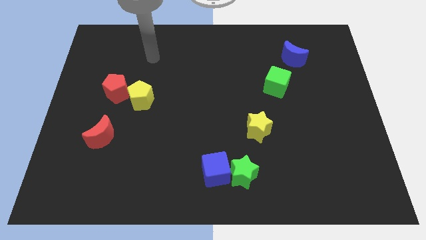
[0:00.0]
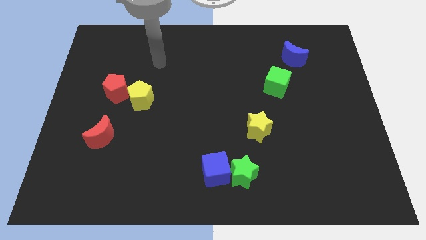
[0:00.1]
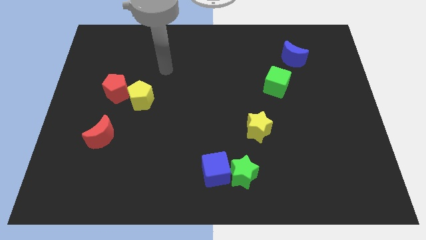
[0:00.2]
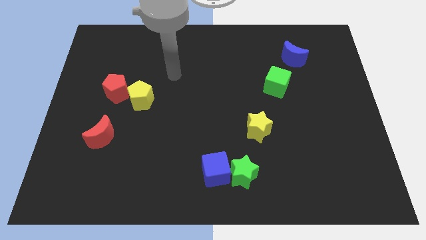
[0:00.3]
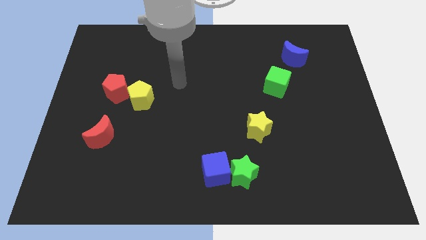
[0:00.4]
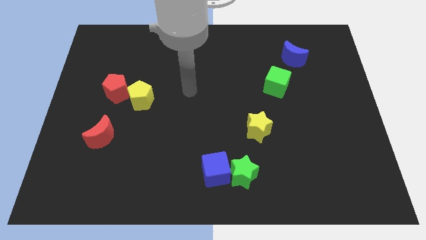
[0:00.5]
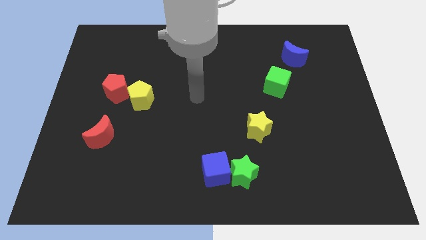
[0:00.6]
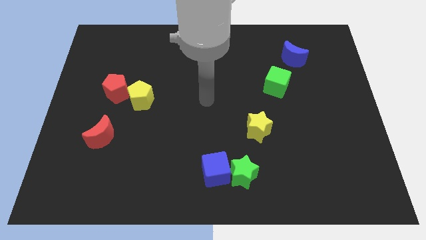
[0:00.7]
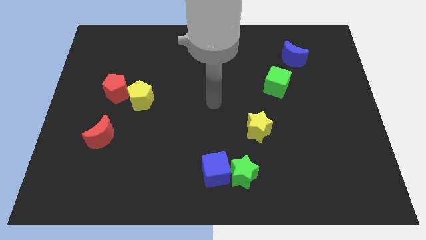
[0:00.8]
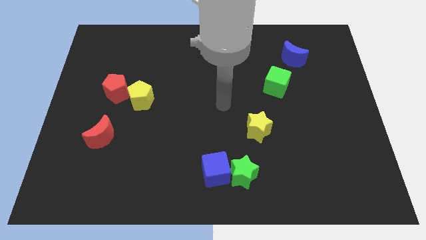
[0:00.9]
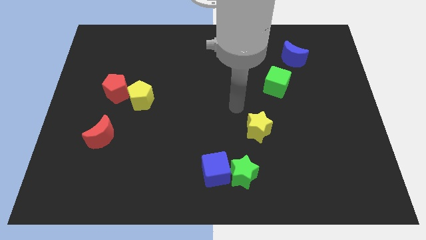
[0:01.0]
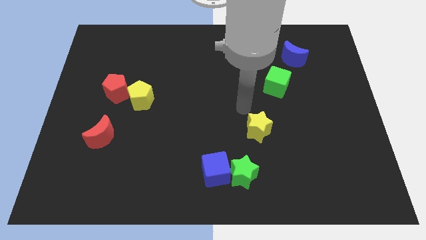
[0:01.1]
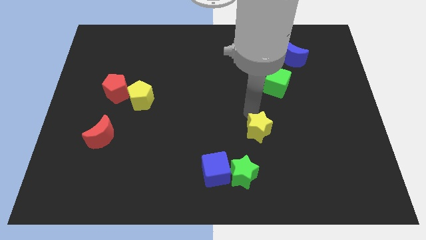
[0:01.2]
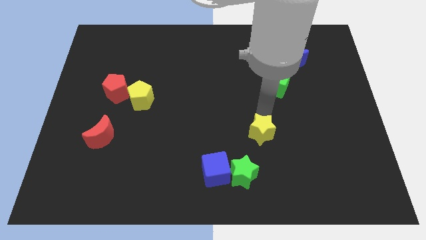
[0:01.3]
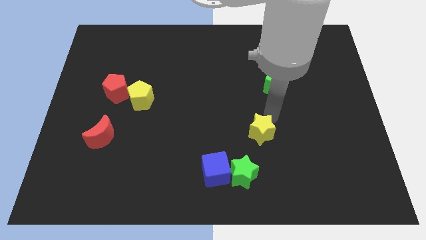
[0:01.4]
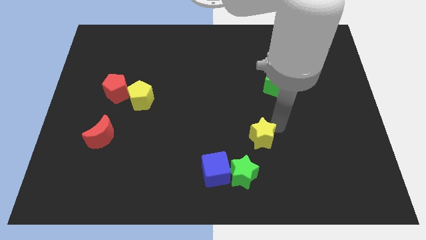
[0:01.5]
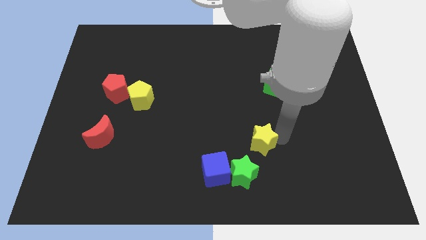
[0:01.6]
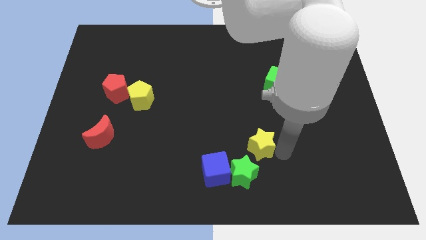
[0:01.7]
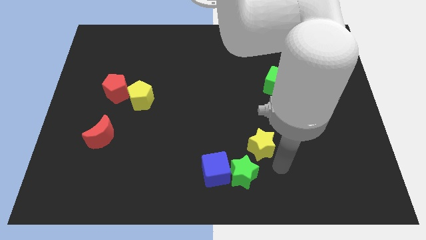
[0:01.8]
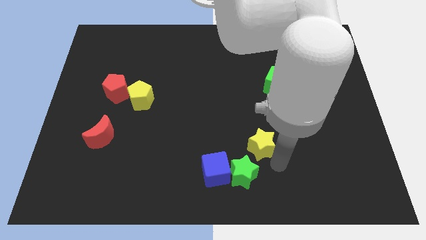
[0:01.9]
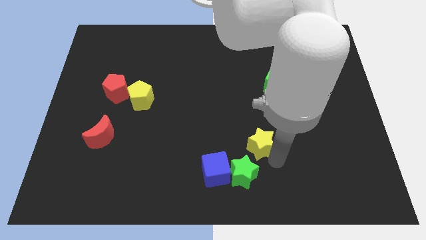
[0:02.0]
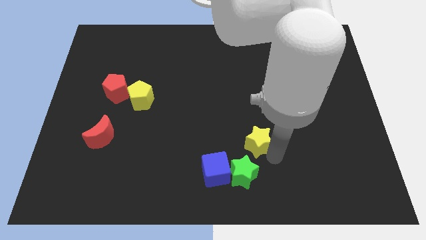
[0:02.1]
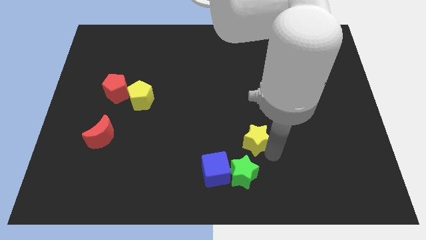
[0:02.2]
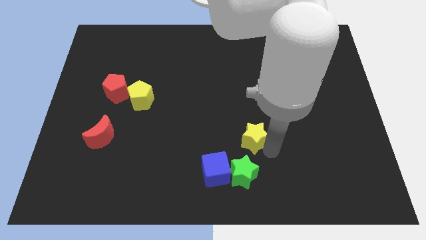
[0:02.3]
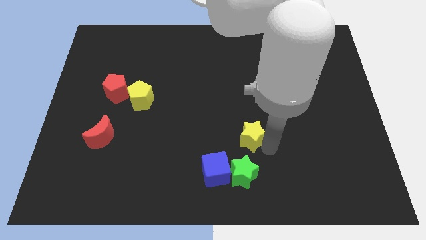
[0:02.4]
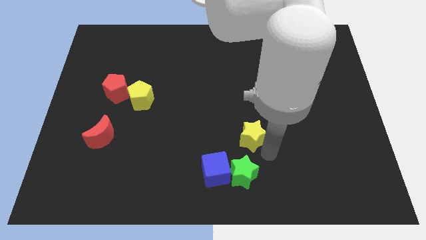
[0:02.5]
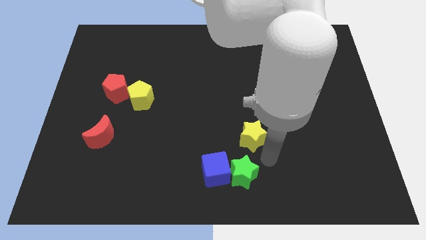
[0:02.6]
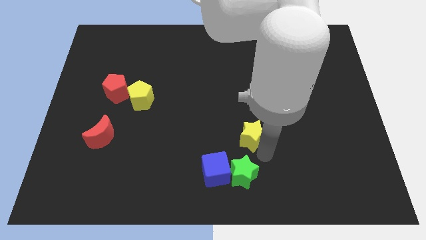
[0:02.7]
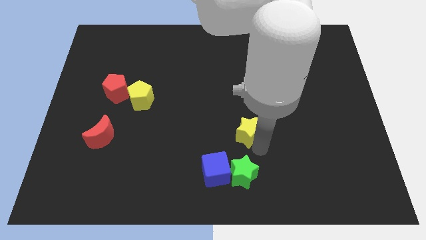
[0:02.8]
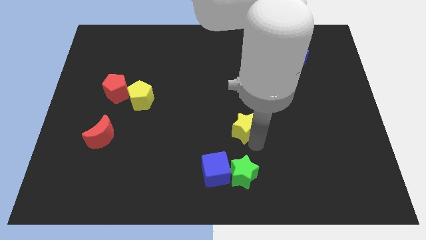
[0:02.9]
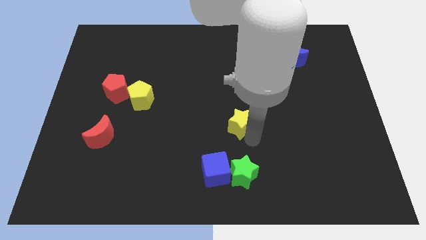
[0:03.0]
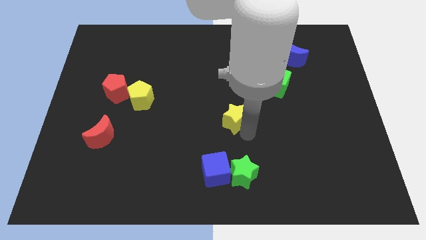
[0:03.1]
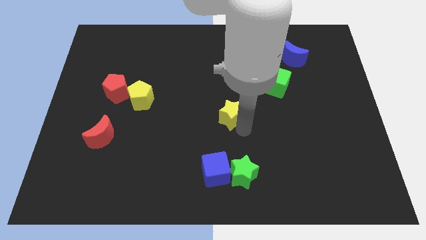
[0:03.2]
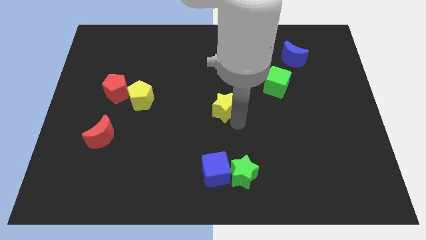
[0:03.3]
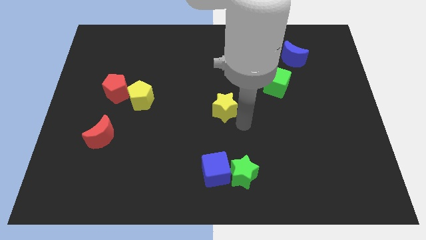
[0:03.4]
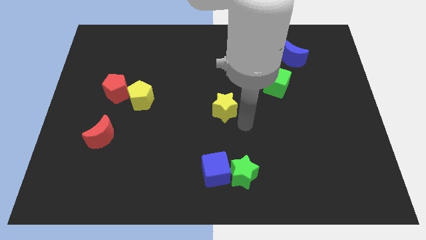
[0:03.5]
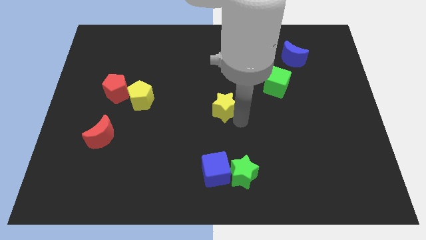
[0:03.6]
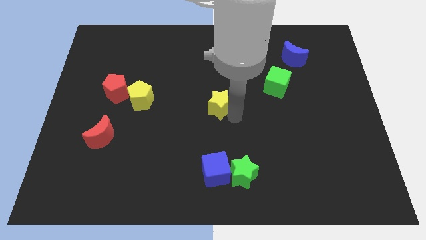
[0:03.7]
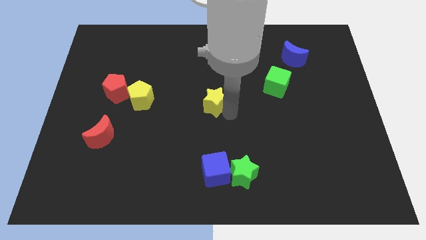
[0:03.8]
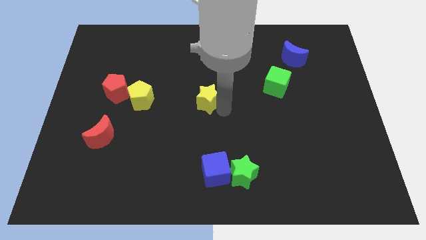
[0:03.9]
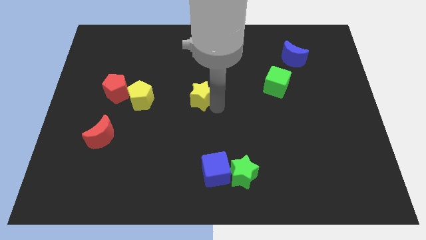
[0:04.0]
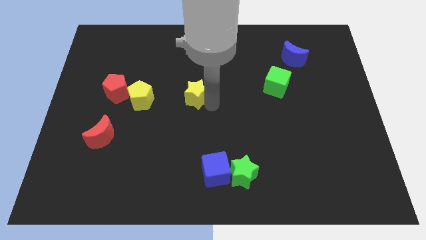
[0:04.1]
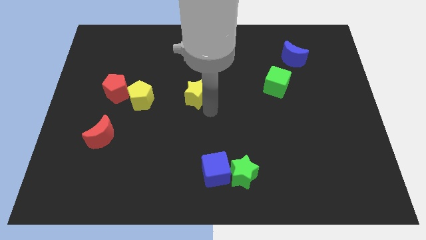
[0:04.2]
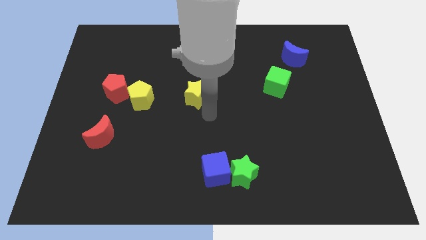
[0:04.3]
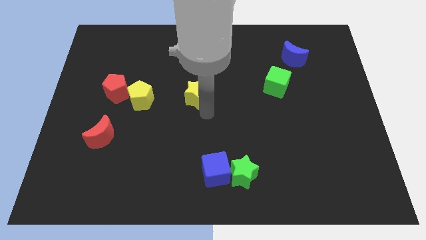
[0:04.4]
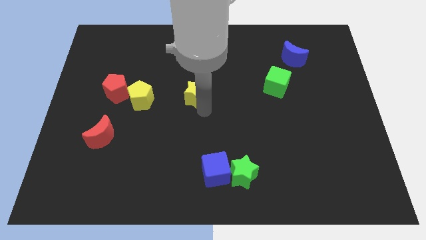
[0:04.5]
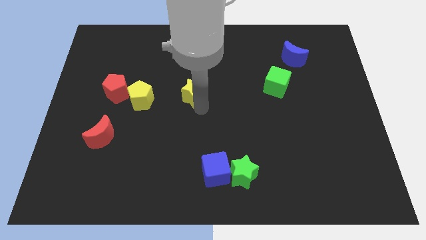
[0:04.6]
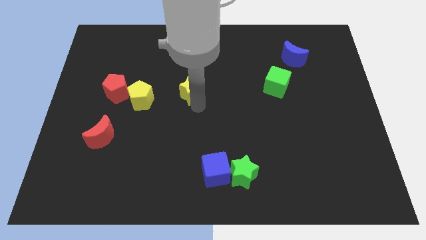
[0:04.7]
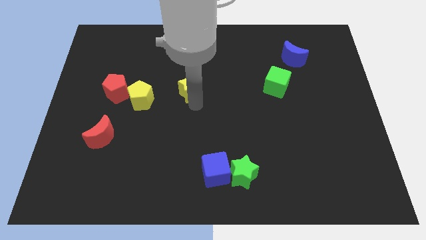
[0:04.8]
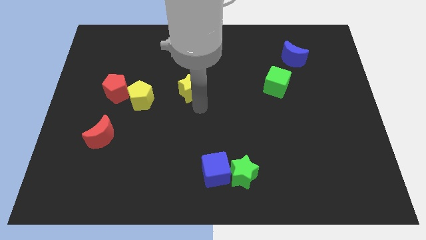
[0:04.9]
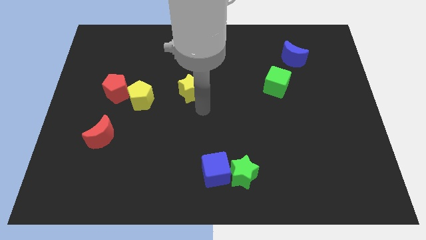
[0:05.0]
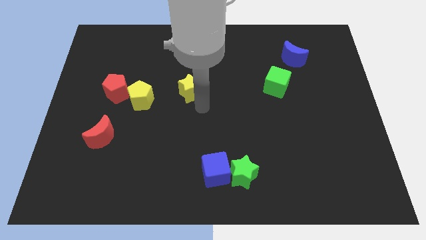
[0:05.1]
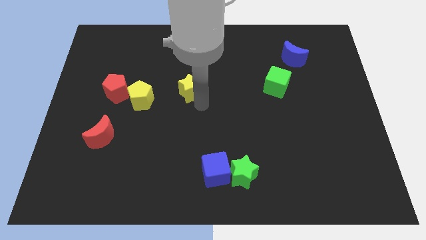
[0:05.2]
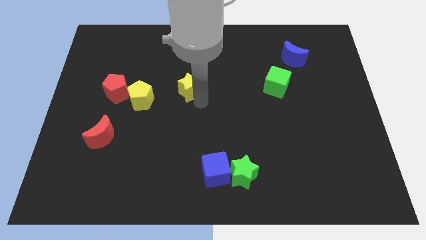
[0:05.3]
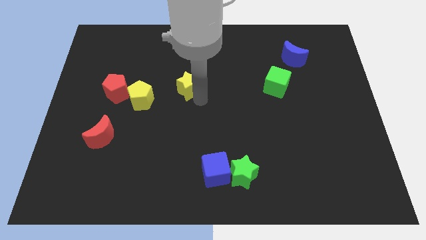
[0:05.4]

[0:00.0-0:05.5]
move the yellow star up and left diagonally

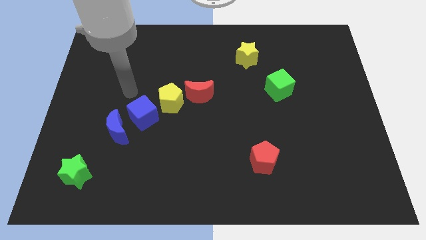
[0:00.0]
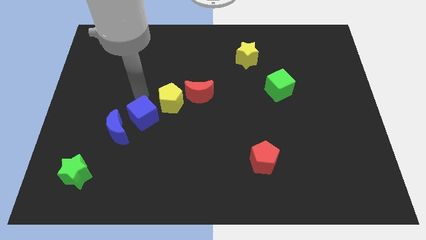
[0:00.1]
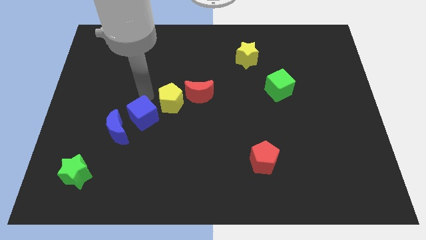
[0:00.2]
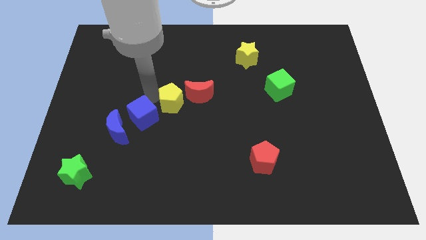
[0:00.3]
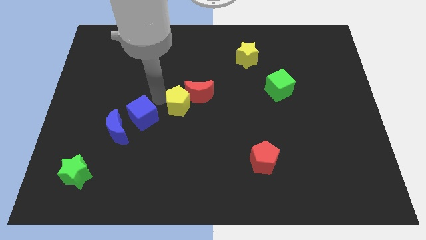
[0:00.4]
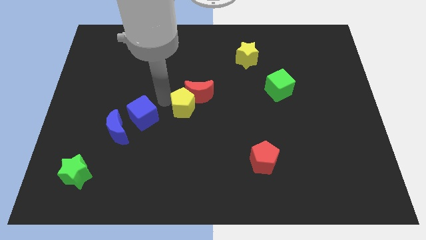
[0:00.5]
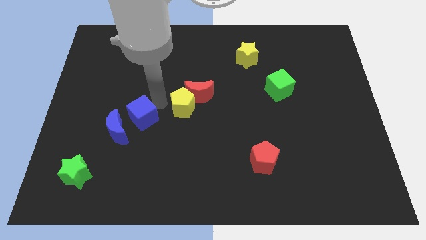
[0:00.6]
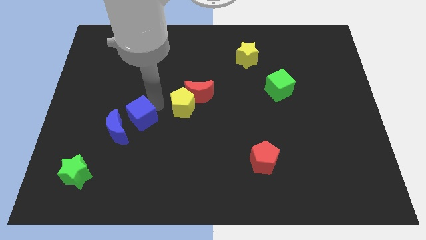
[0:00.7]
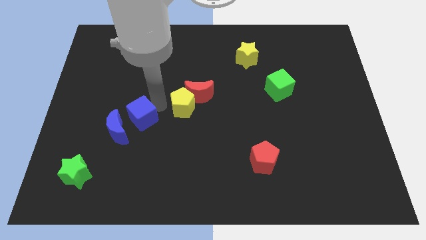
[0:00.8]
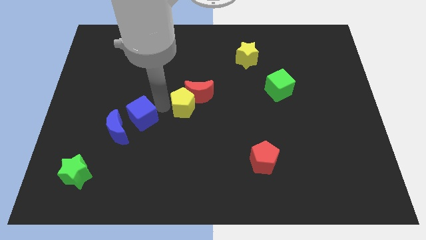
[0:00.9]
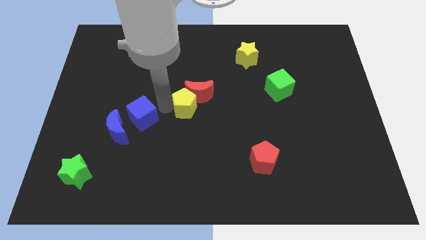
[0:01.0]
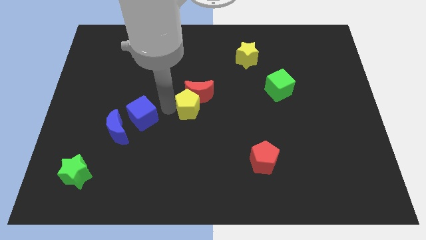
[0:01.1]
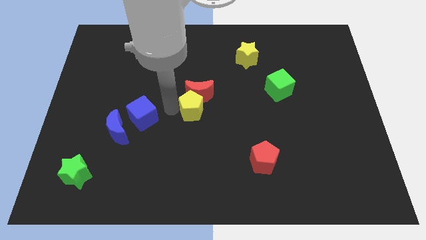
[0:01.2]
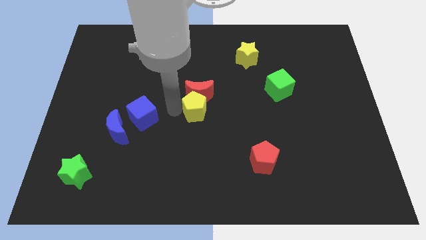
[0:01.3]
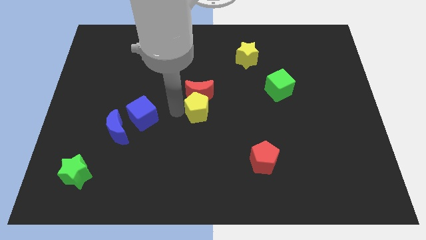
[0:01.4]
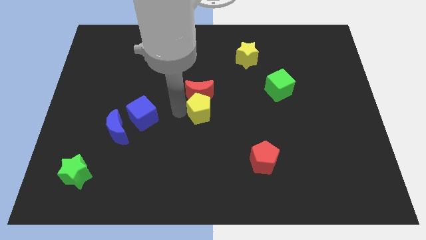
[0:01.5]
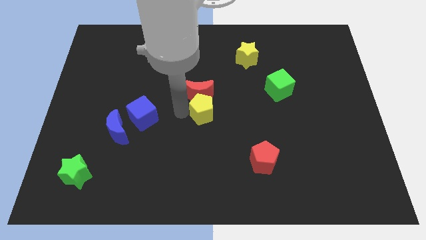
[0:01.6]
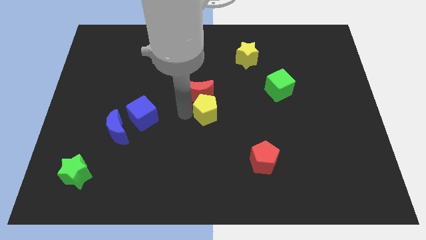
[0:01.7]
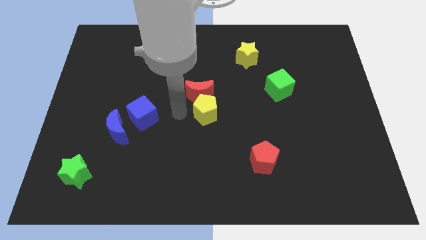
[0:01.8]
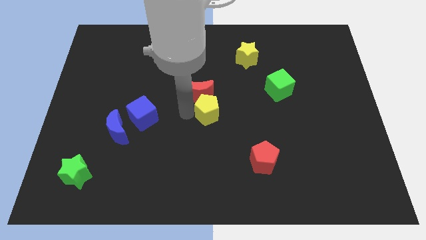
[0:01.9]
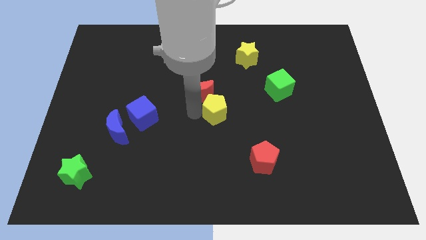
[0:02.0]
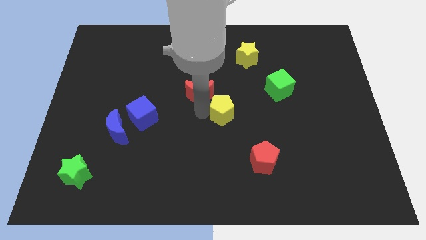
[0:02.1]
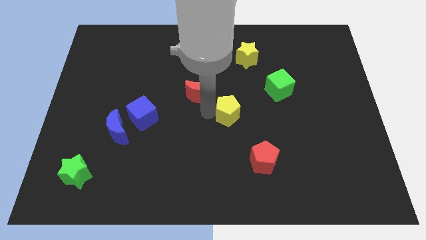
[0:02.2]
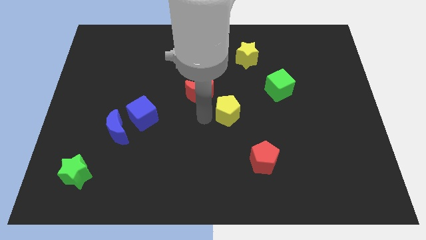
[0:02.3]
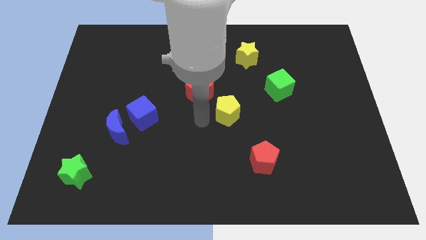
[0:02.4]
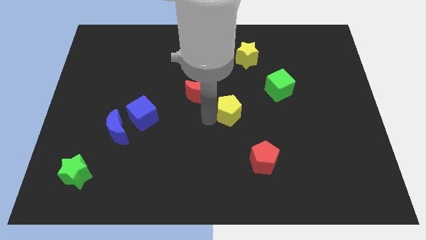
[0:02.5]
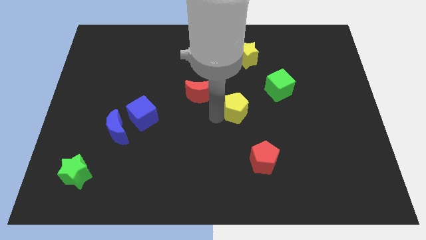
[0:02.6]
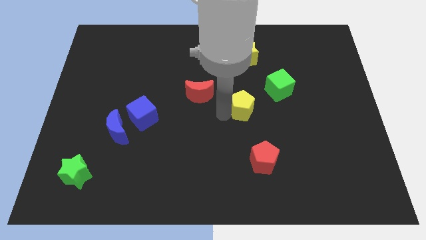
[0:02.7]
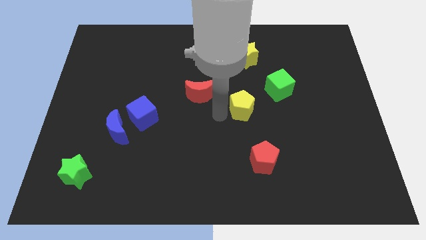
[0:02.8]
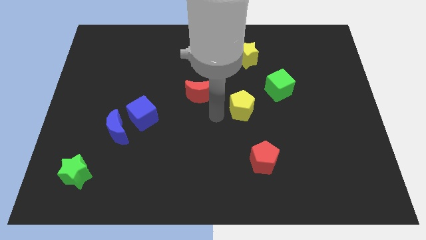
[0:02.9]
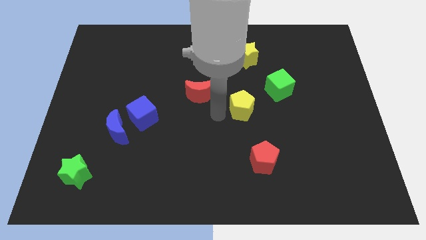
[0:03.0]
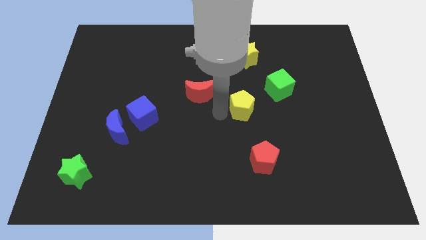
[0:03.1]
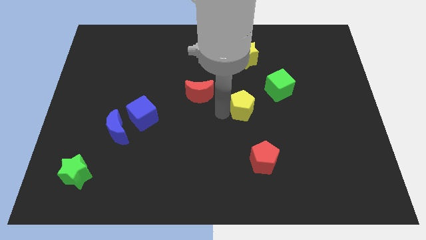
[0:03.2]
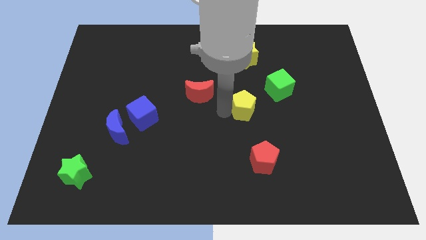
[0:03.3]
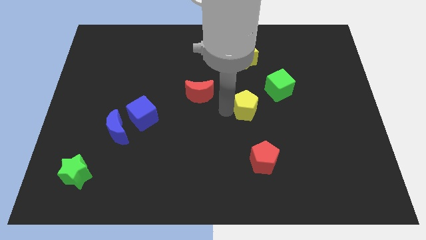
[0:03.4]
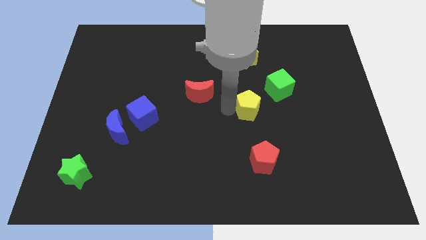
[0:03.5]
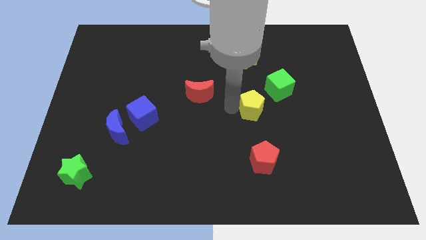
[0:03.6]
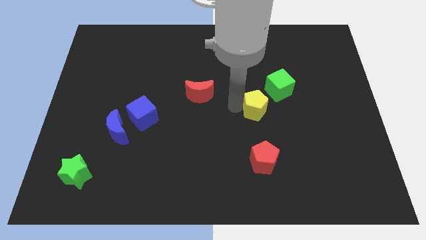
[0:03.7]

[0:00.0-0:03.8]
move the yellow pentagon right
